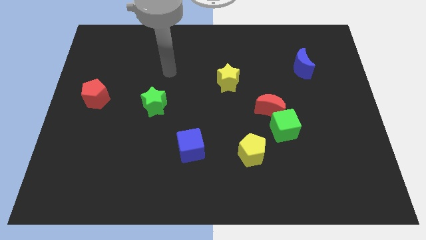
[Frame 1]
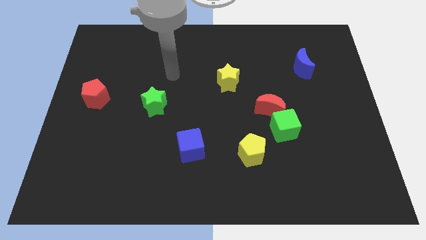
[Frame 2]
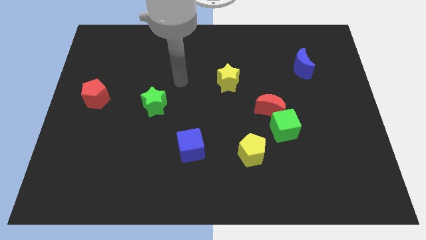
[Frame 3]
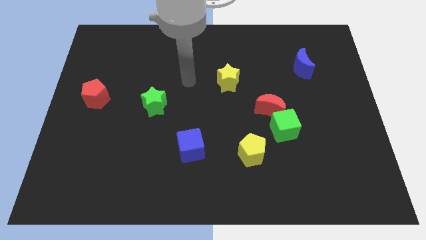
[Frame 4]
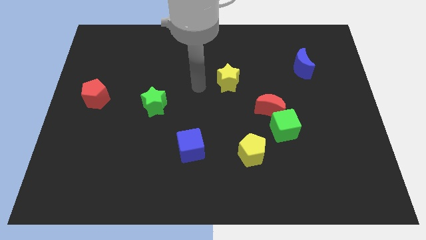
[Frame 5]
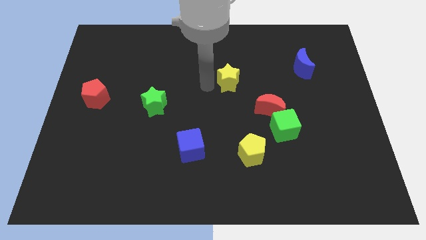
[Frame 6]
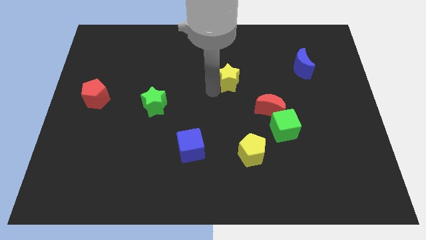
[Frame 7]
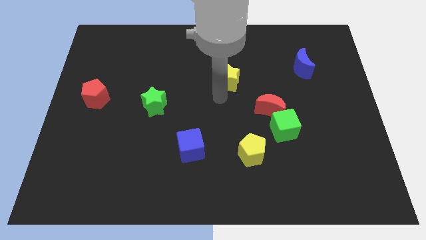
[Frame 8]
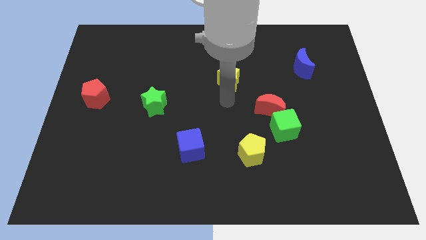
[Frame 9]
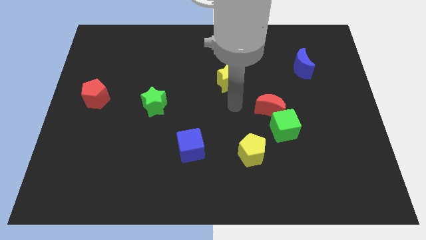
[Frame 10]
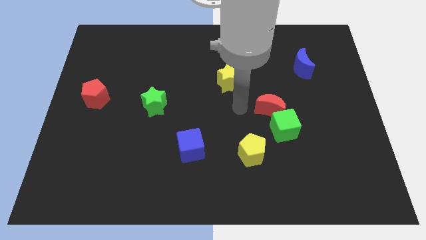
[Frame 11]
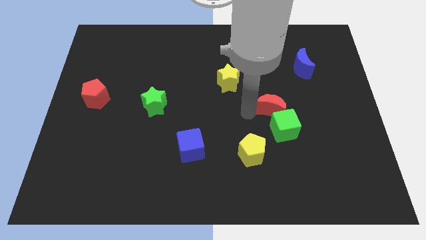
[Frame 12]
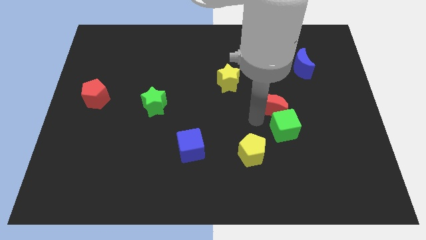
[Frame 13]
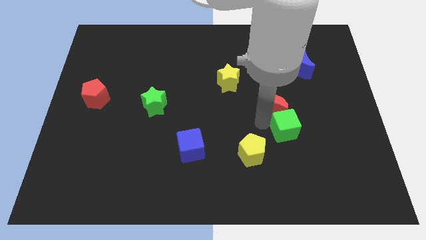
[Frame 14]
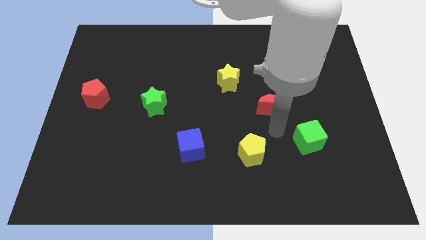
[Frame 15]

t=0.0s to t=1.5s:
move the red moon away from the green cube

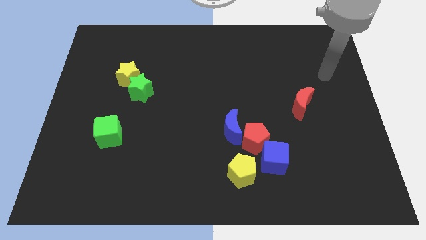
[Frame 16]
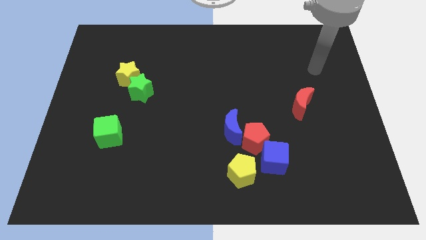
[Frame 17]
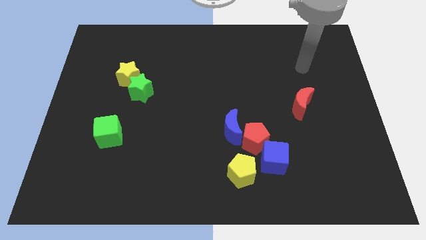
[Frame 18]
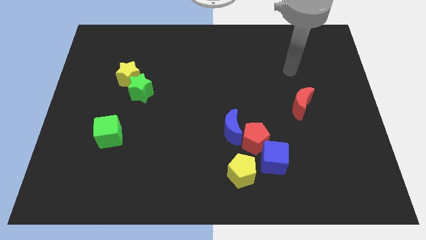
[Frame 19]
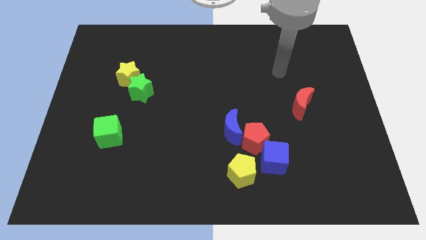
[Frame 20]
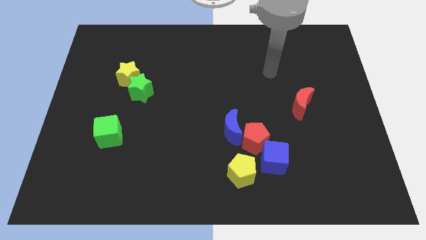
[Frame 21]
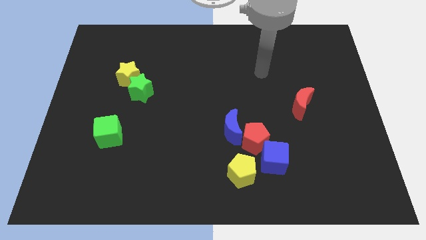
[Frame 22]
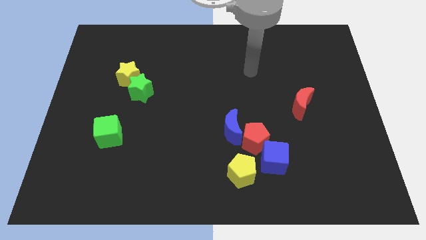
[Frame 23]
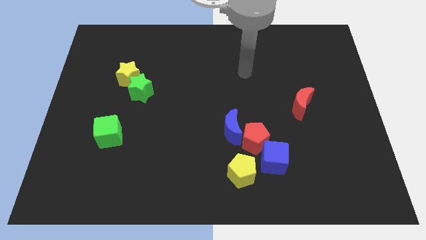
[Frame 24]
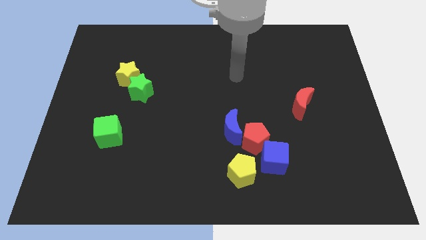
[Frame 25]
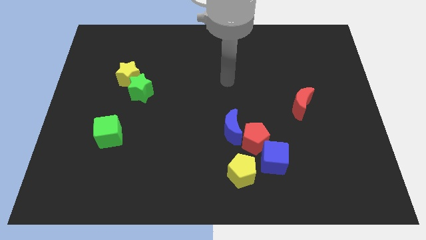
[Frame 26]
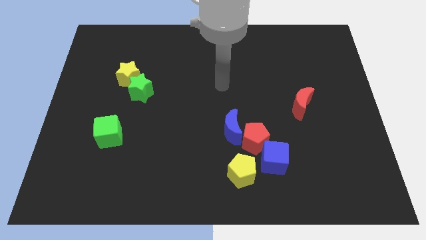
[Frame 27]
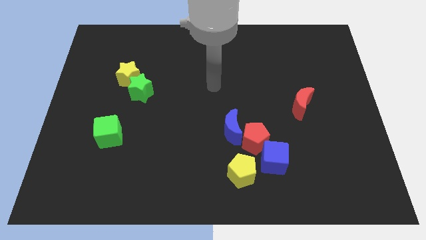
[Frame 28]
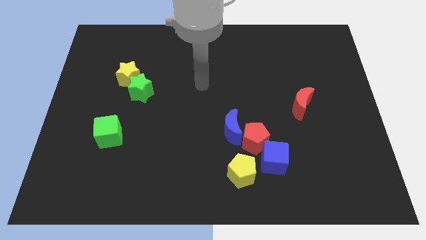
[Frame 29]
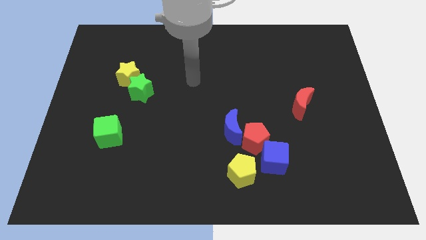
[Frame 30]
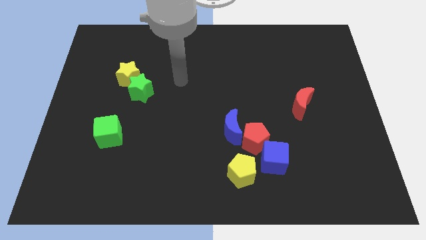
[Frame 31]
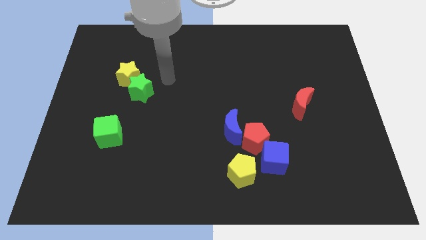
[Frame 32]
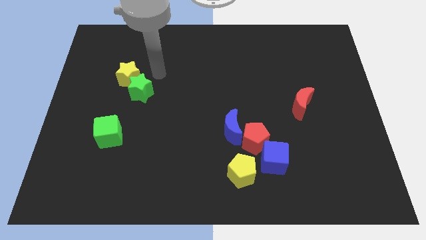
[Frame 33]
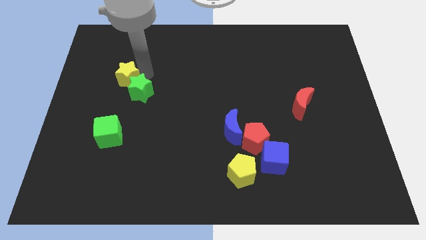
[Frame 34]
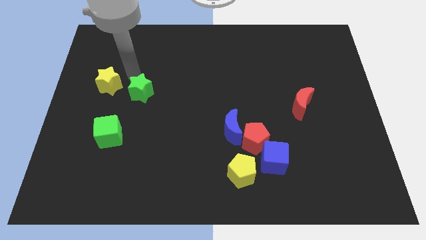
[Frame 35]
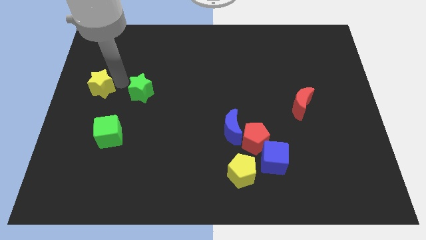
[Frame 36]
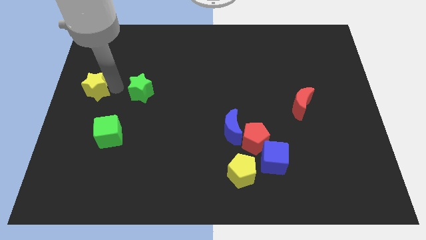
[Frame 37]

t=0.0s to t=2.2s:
separate the green star from the yellow star

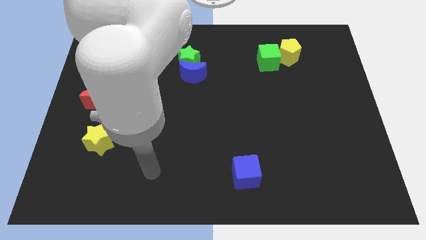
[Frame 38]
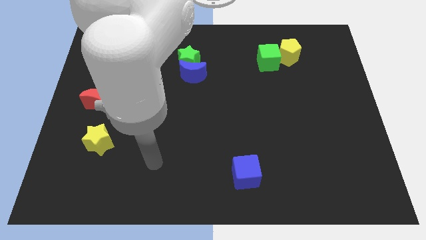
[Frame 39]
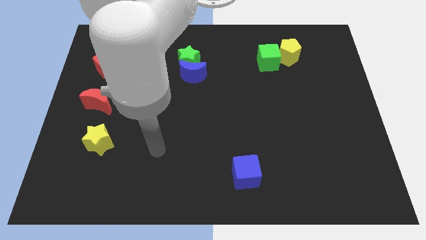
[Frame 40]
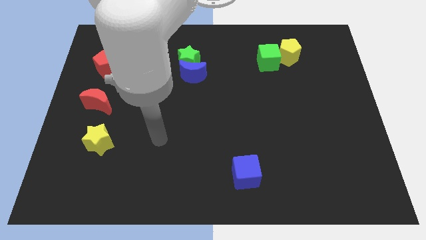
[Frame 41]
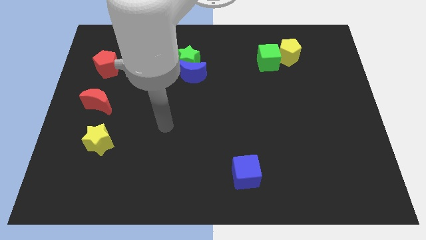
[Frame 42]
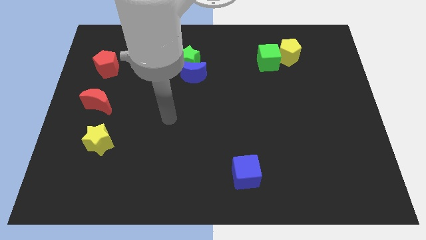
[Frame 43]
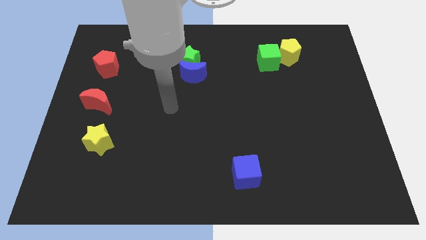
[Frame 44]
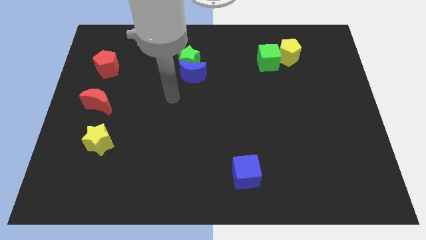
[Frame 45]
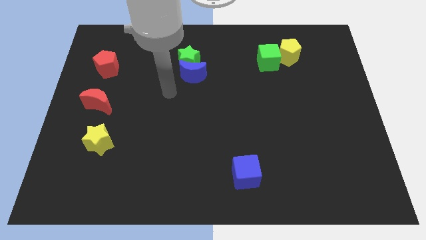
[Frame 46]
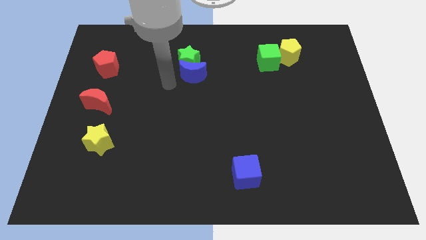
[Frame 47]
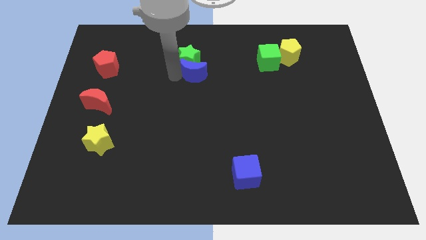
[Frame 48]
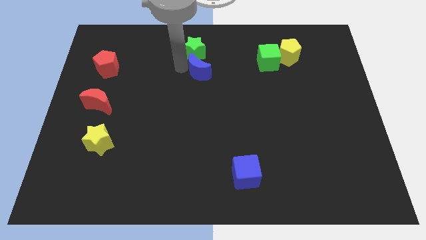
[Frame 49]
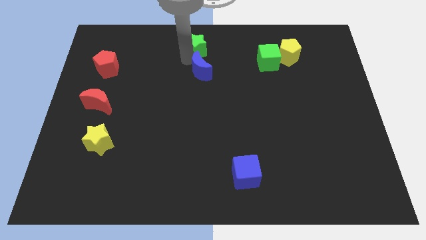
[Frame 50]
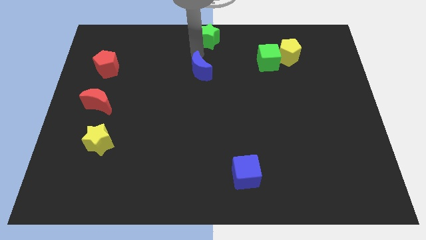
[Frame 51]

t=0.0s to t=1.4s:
pull the blue moon apart from the green star

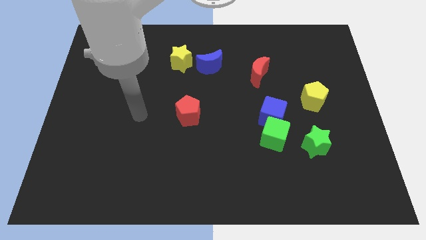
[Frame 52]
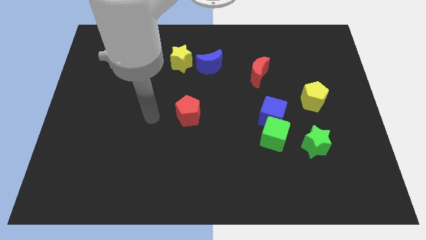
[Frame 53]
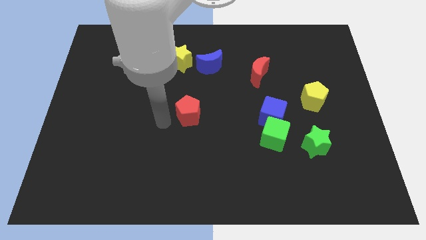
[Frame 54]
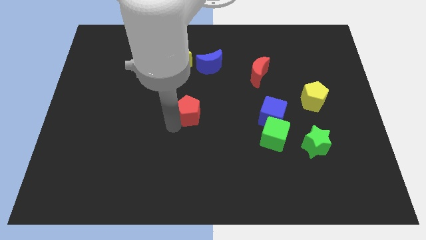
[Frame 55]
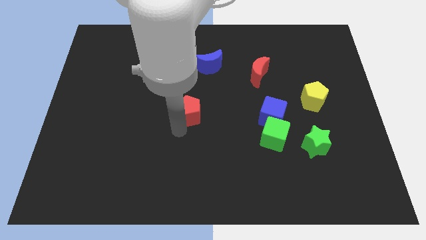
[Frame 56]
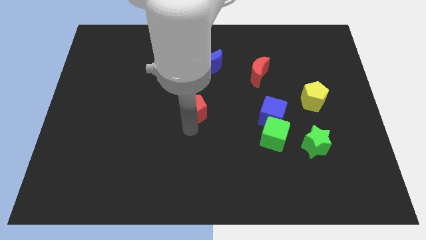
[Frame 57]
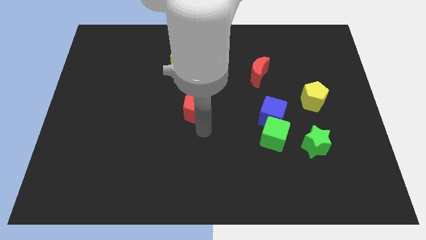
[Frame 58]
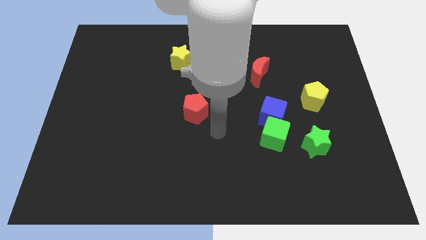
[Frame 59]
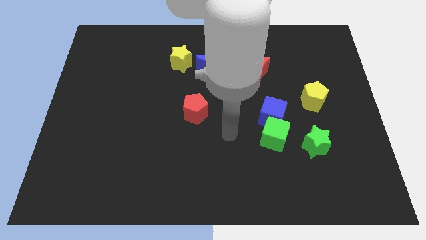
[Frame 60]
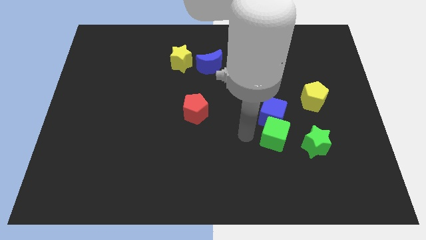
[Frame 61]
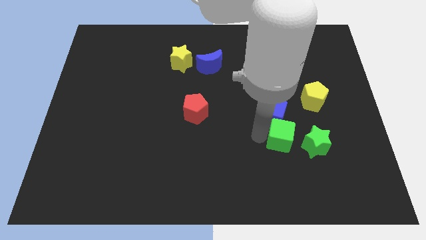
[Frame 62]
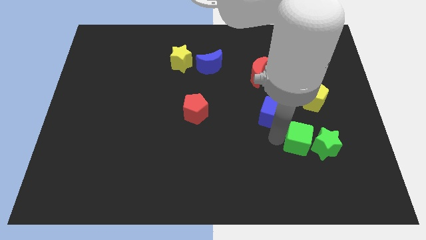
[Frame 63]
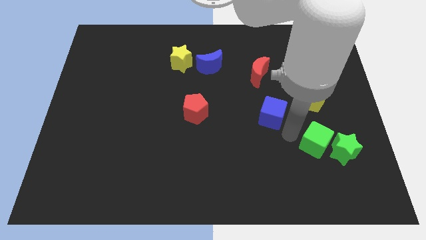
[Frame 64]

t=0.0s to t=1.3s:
separate the blue cube from the green cube

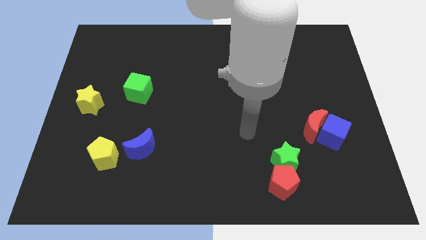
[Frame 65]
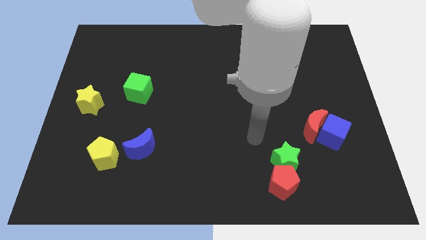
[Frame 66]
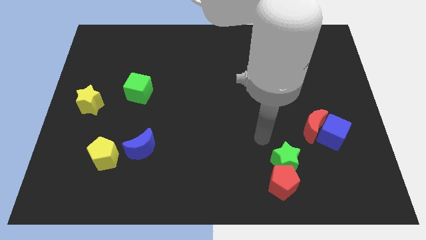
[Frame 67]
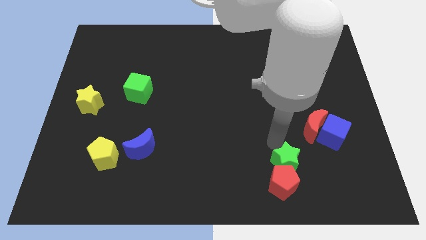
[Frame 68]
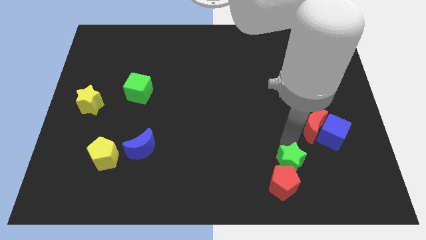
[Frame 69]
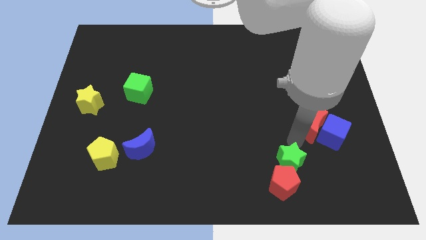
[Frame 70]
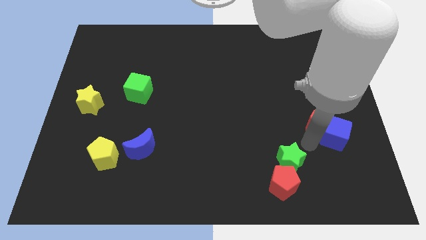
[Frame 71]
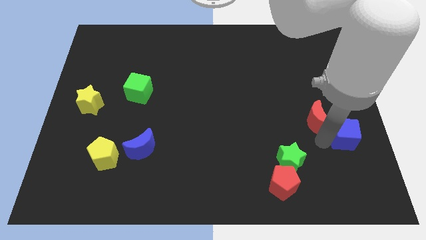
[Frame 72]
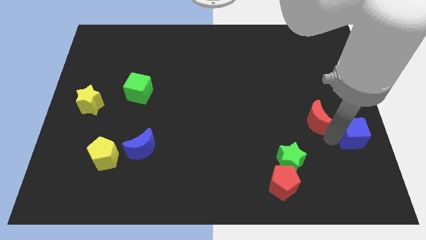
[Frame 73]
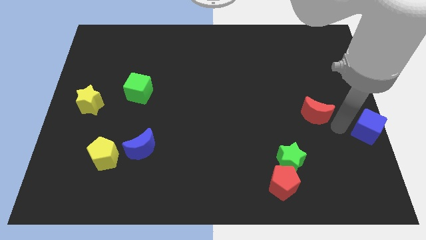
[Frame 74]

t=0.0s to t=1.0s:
separate the red moon from the blue cube

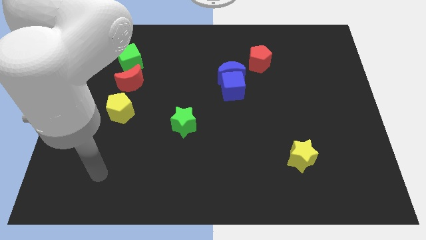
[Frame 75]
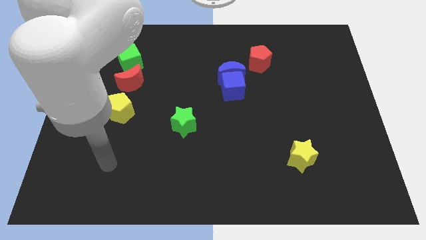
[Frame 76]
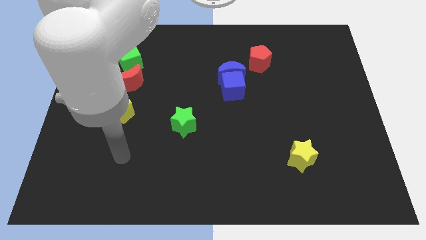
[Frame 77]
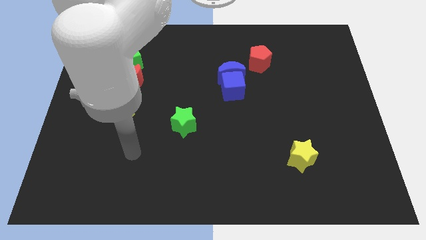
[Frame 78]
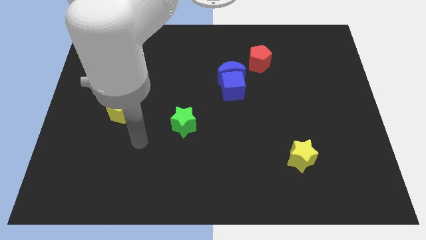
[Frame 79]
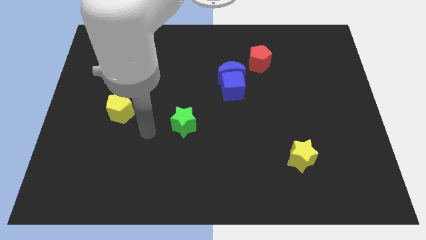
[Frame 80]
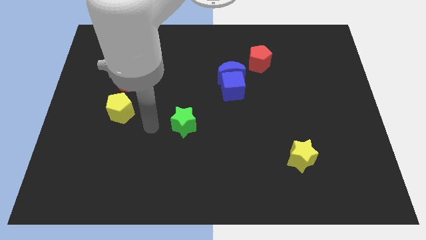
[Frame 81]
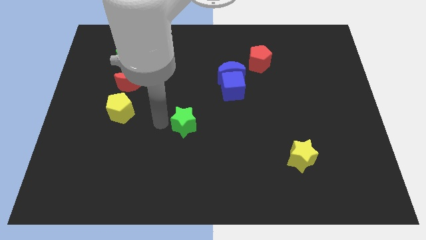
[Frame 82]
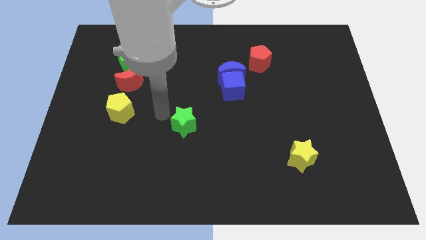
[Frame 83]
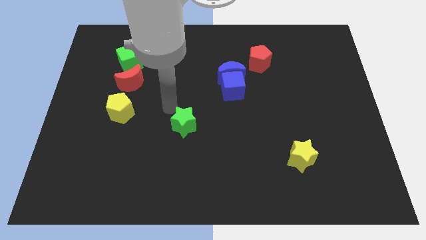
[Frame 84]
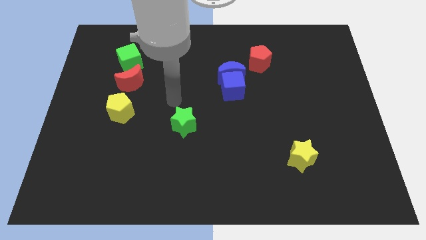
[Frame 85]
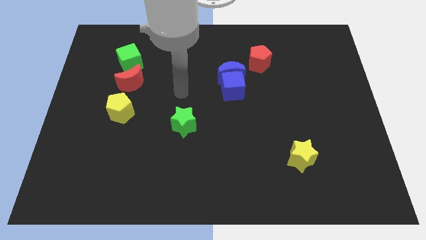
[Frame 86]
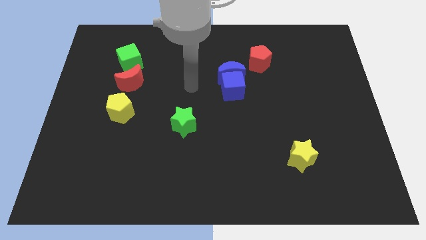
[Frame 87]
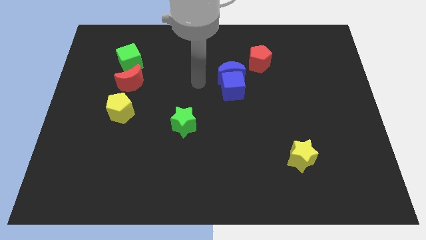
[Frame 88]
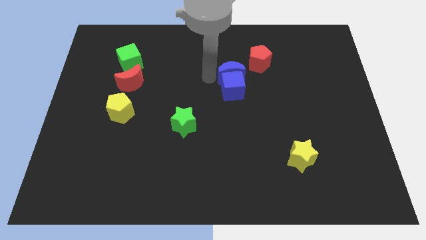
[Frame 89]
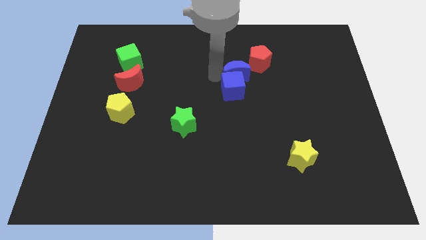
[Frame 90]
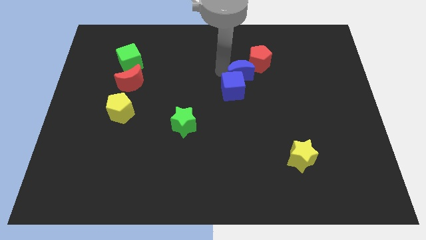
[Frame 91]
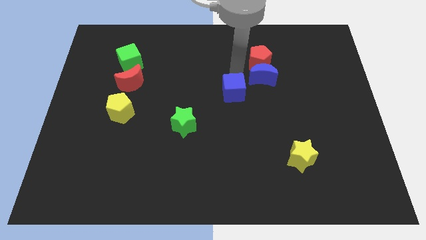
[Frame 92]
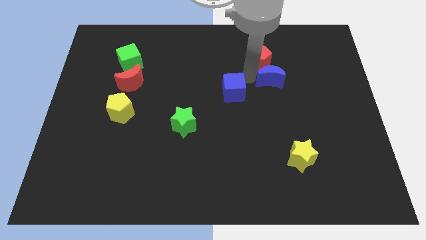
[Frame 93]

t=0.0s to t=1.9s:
pull the blue cube apart from the blue moon
